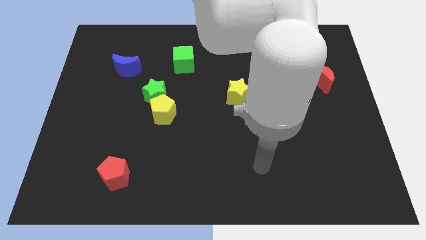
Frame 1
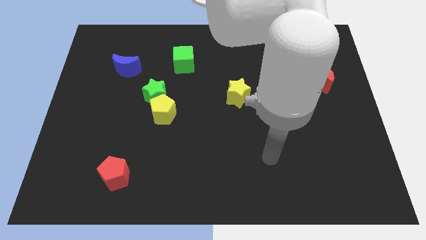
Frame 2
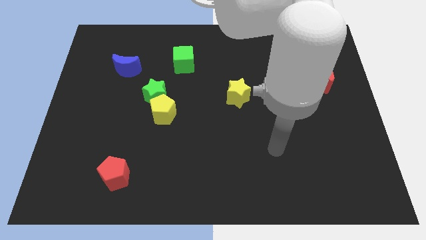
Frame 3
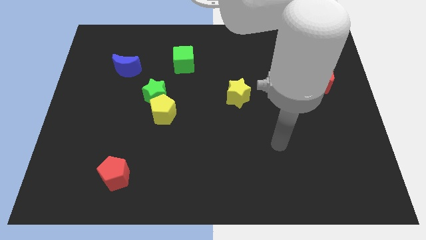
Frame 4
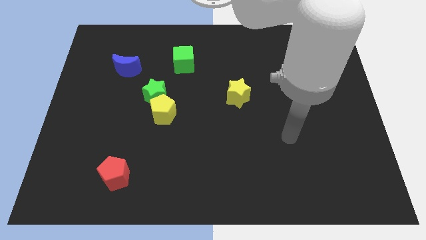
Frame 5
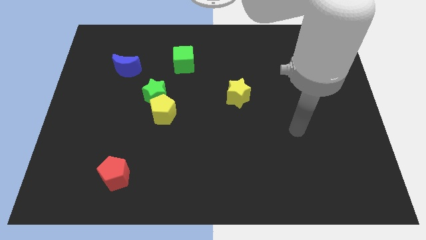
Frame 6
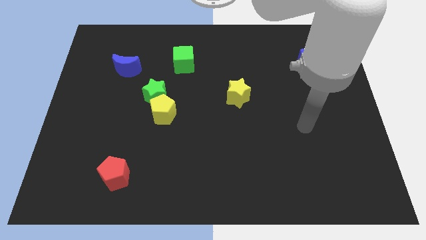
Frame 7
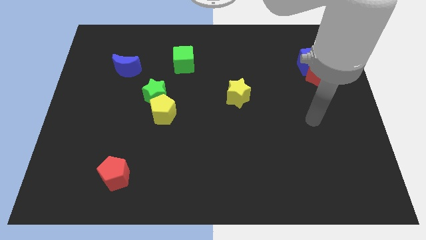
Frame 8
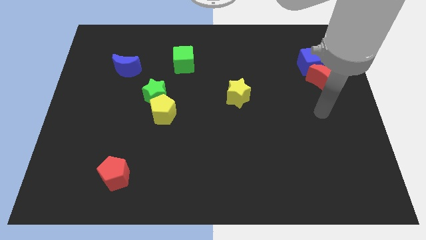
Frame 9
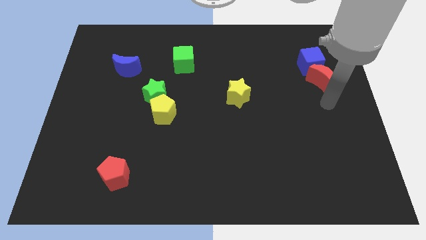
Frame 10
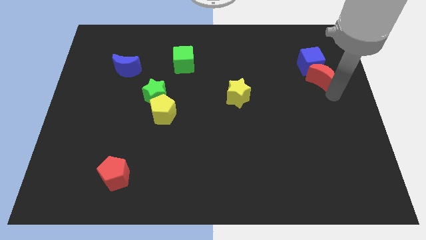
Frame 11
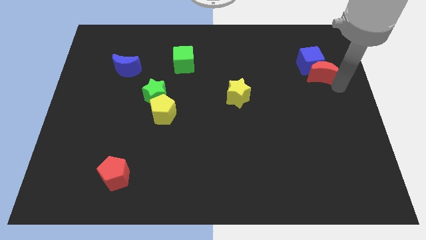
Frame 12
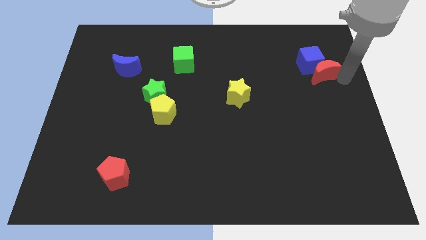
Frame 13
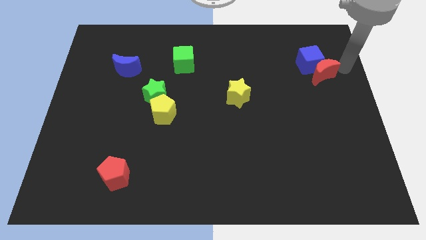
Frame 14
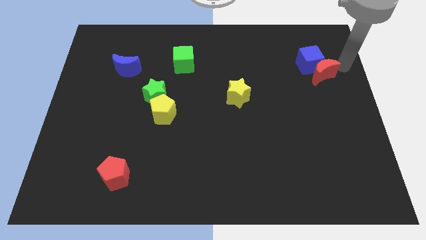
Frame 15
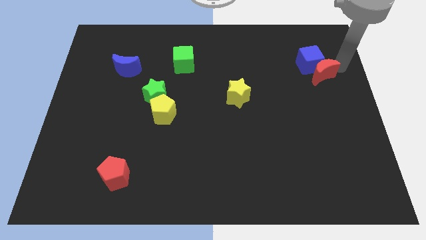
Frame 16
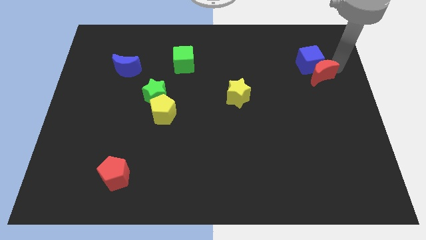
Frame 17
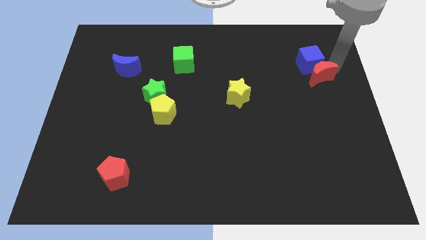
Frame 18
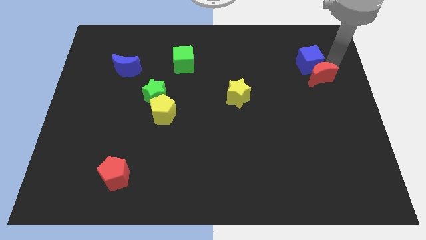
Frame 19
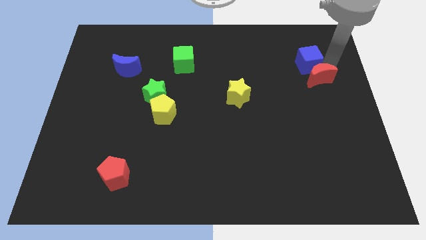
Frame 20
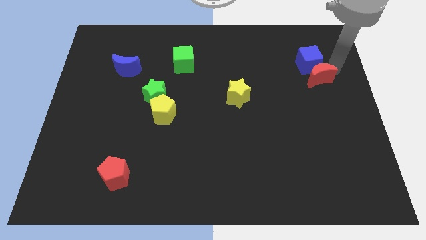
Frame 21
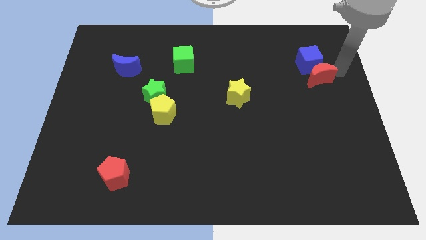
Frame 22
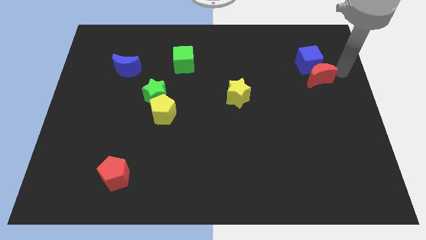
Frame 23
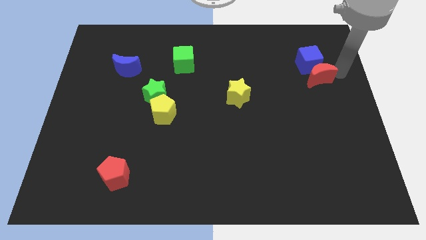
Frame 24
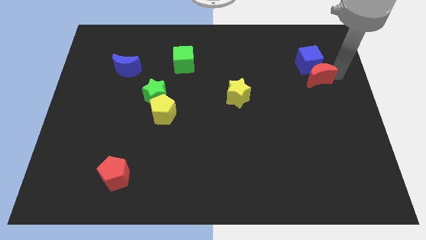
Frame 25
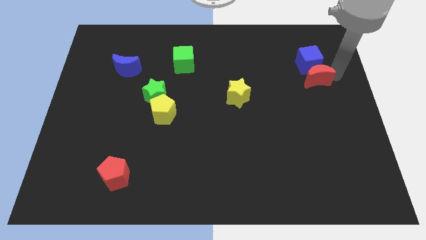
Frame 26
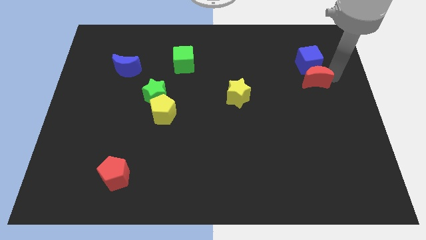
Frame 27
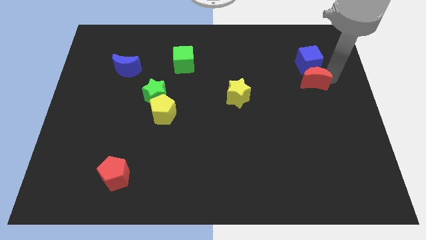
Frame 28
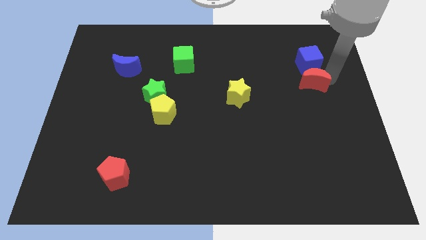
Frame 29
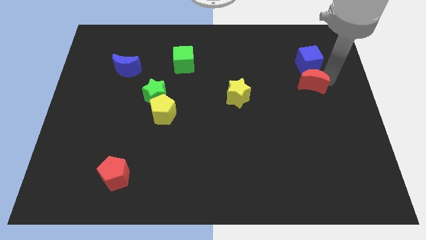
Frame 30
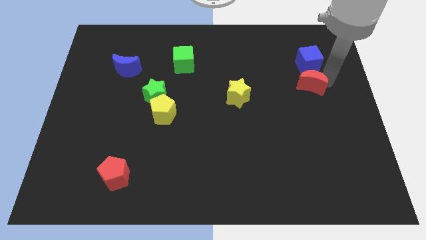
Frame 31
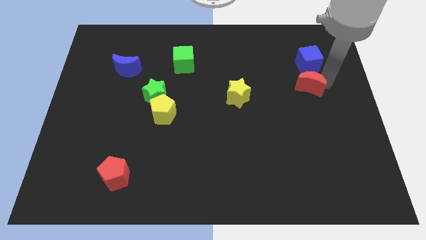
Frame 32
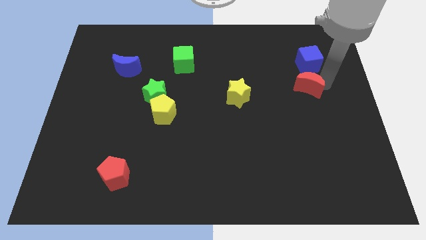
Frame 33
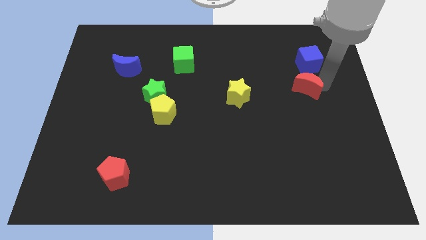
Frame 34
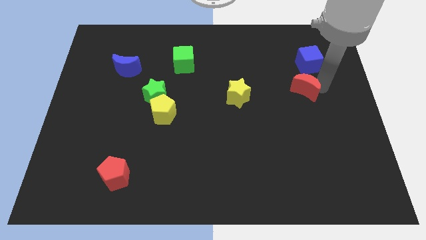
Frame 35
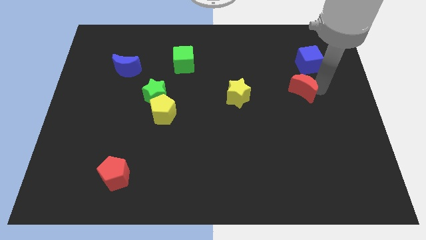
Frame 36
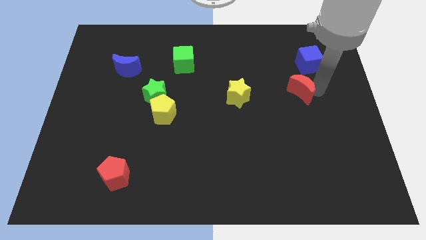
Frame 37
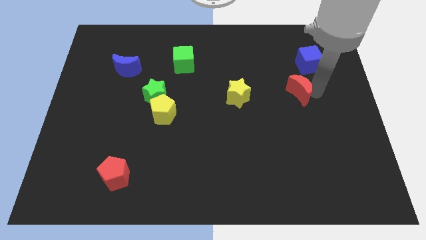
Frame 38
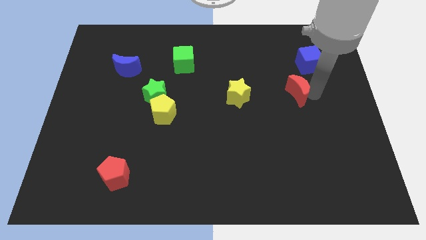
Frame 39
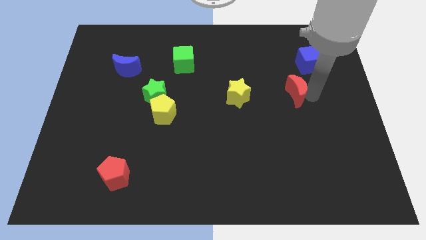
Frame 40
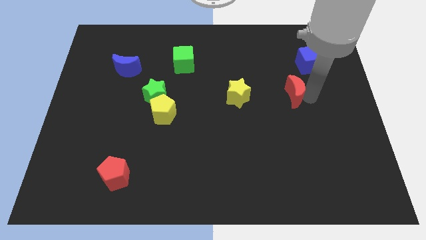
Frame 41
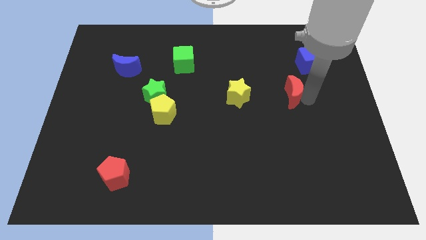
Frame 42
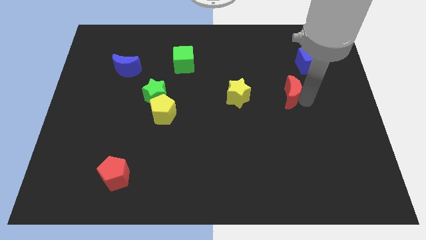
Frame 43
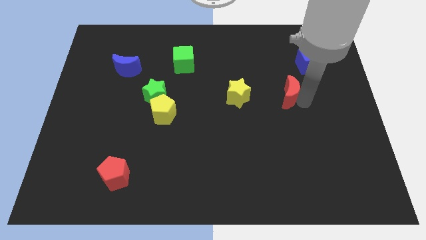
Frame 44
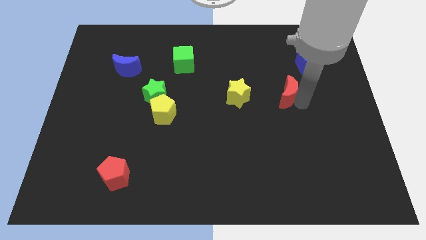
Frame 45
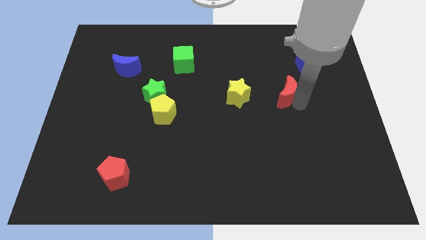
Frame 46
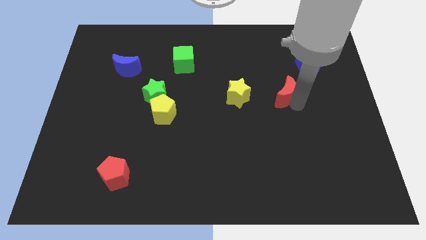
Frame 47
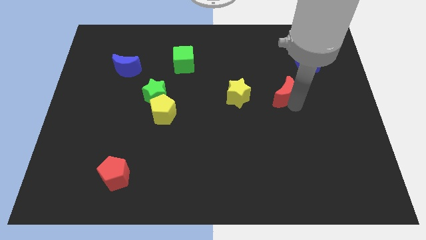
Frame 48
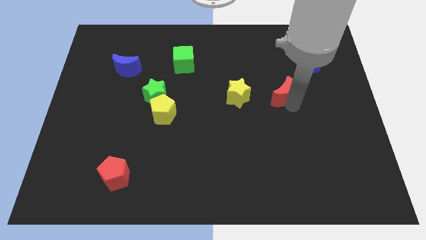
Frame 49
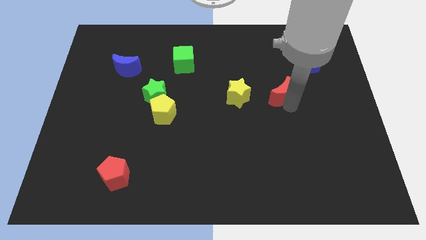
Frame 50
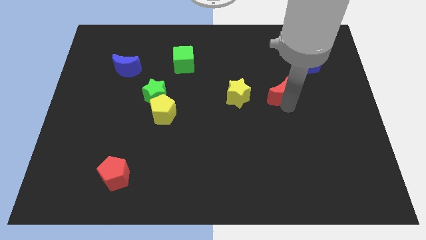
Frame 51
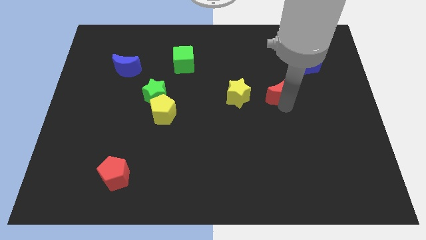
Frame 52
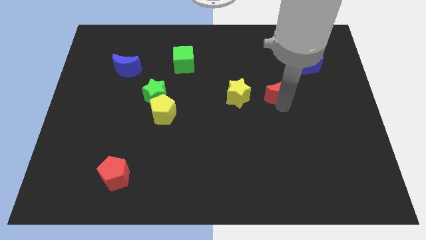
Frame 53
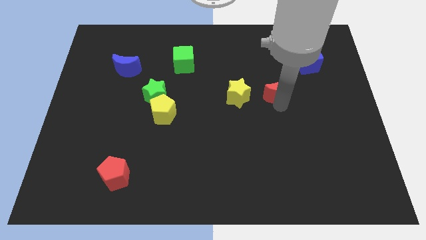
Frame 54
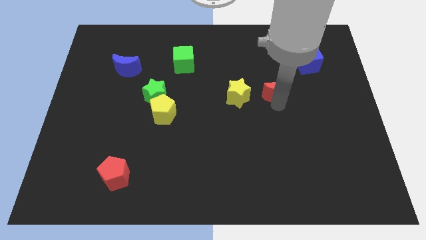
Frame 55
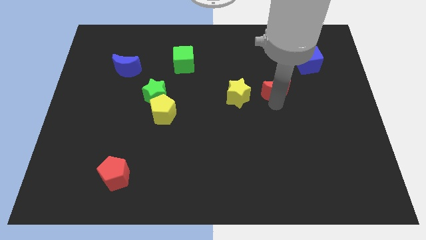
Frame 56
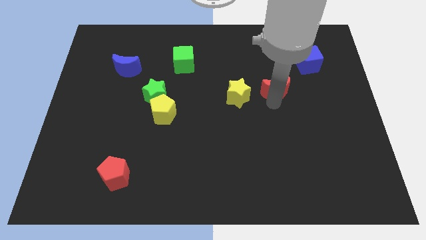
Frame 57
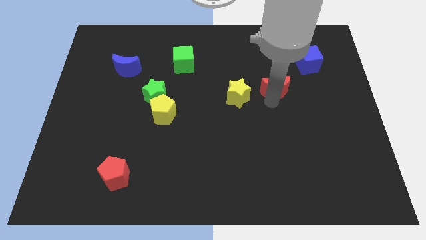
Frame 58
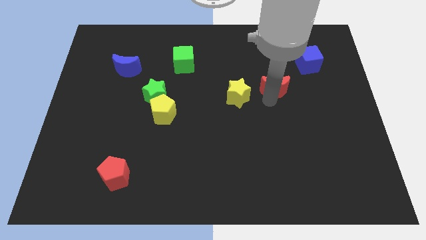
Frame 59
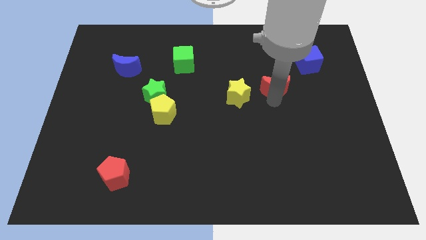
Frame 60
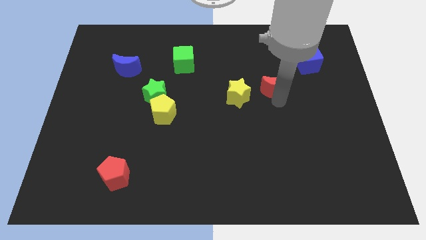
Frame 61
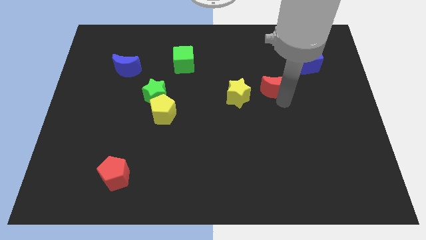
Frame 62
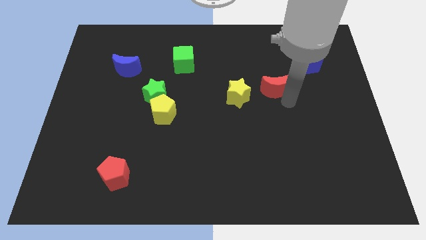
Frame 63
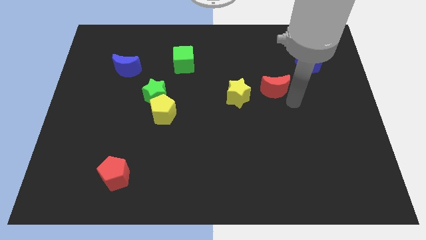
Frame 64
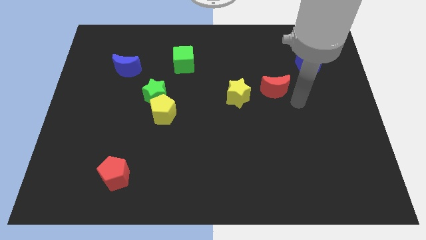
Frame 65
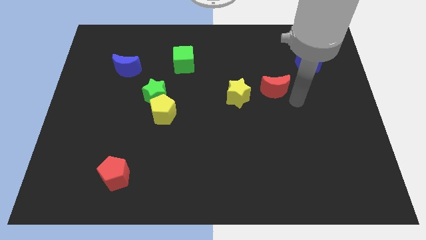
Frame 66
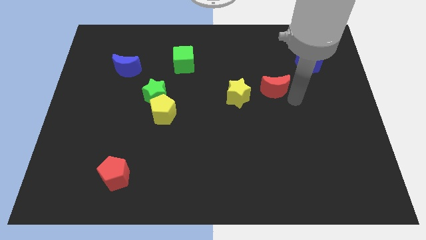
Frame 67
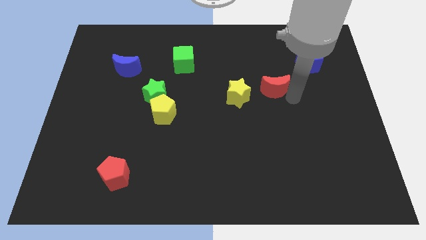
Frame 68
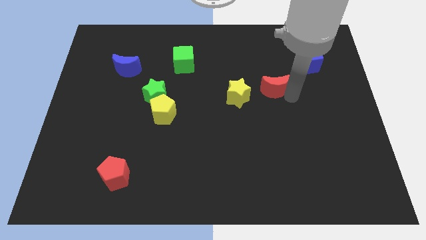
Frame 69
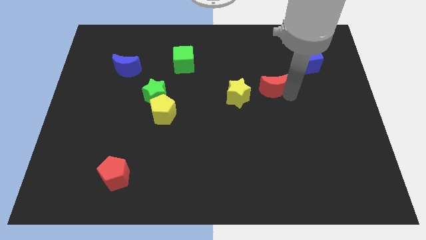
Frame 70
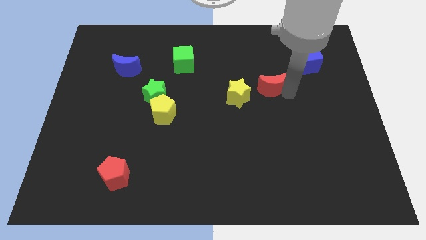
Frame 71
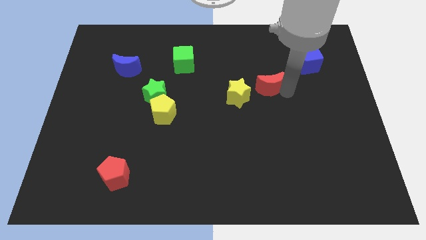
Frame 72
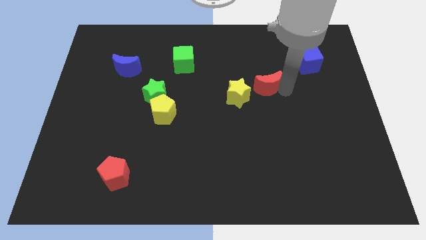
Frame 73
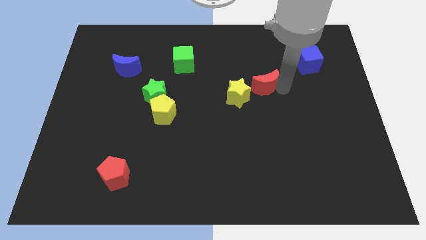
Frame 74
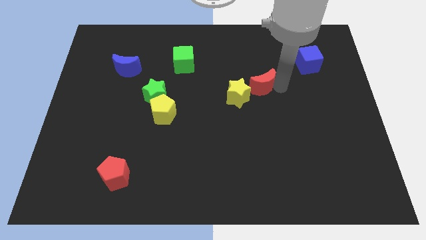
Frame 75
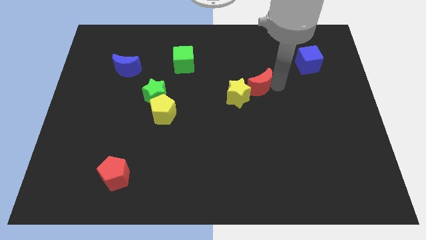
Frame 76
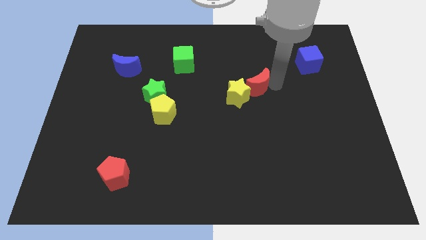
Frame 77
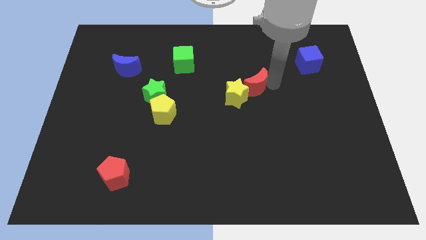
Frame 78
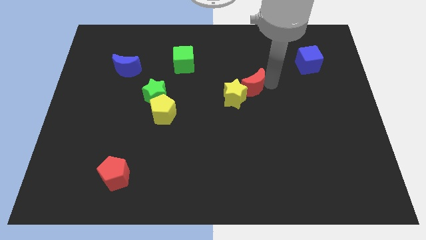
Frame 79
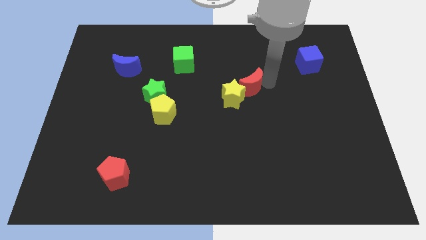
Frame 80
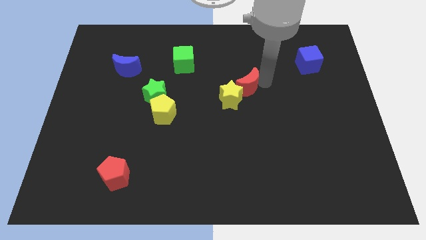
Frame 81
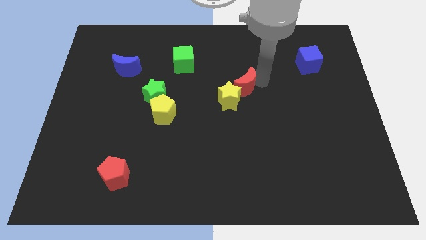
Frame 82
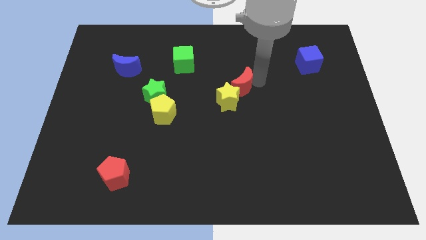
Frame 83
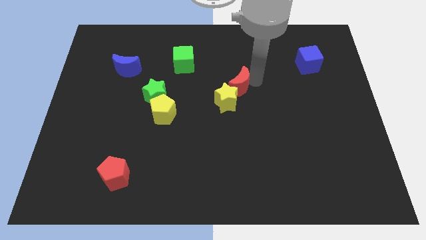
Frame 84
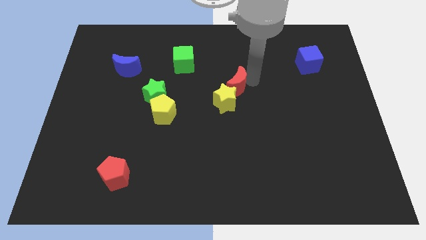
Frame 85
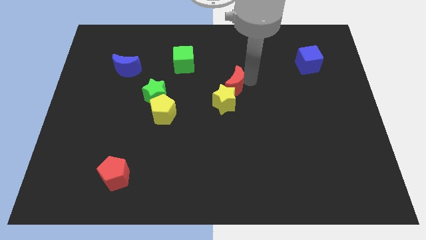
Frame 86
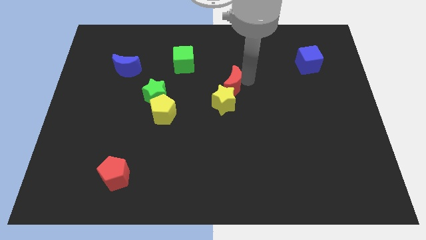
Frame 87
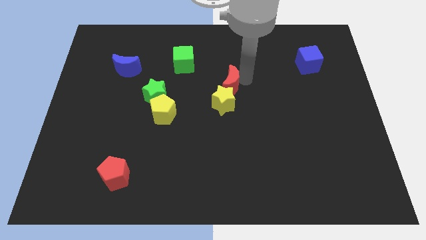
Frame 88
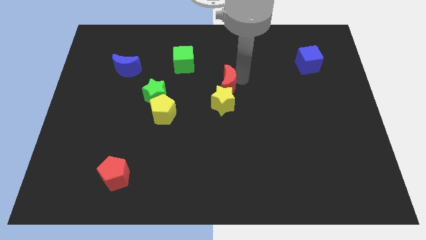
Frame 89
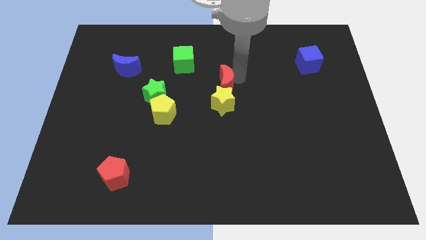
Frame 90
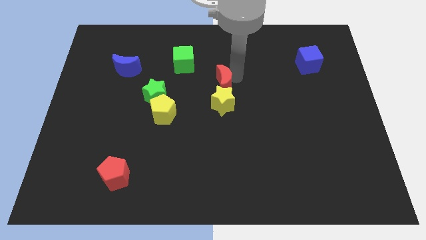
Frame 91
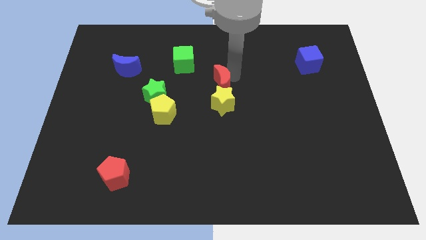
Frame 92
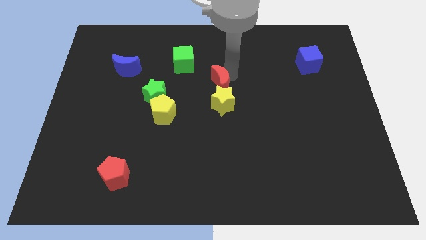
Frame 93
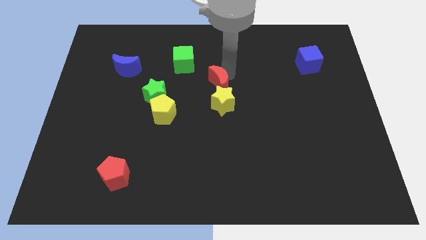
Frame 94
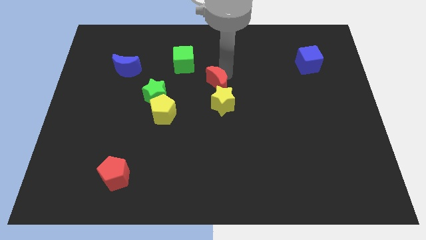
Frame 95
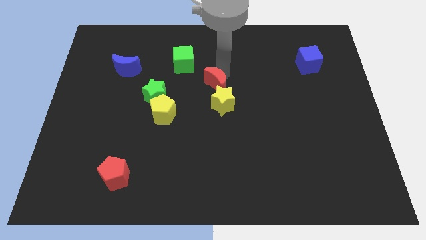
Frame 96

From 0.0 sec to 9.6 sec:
move the red moon right of the green star
